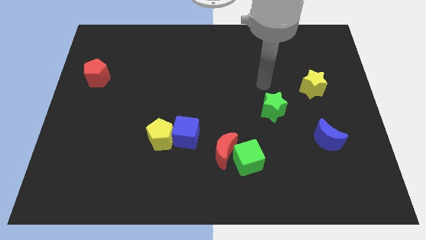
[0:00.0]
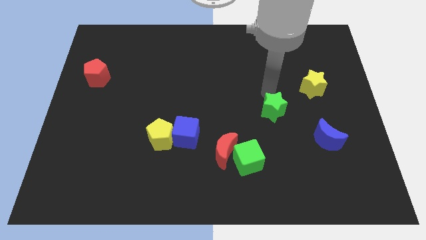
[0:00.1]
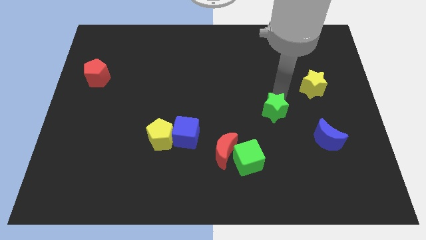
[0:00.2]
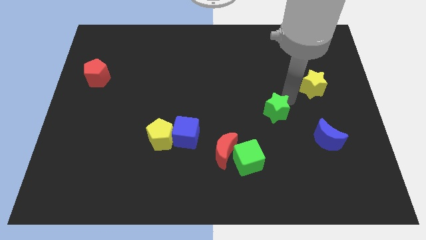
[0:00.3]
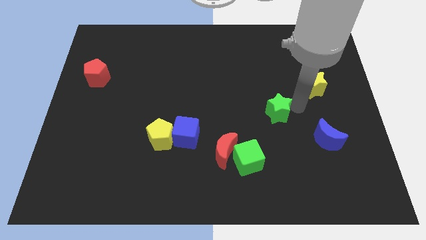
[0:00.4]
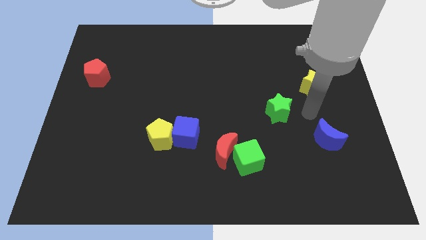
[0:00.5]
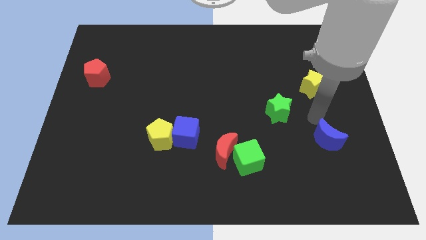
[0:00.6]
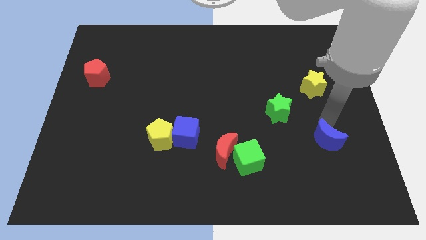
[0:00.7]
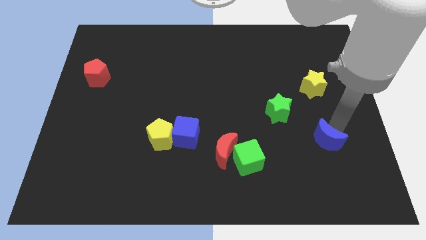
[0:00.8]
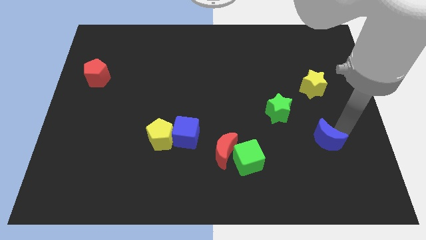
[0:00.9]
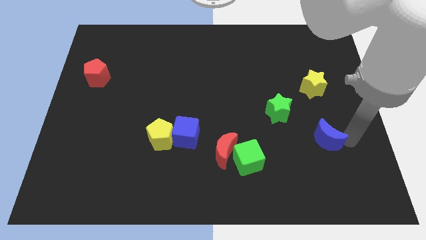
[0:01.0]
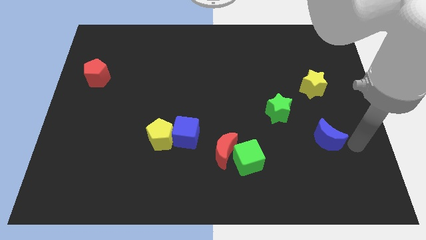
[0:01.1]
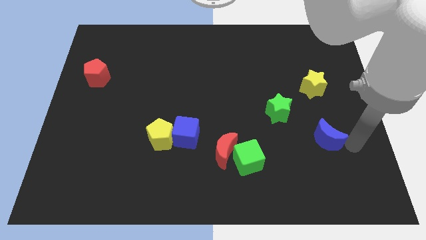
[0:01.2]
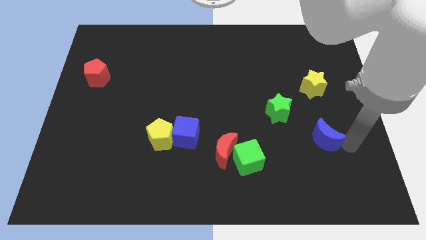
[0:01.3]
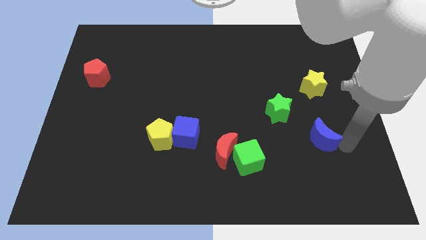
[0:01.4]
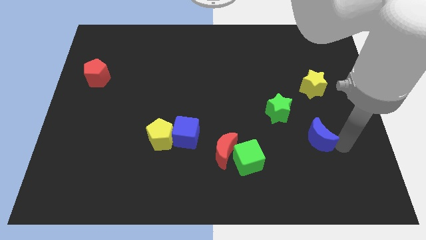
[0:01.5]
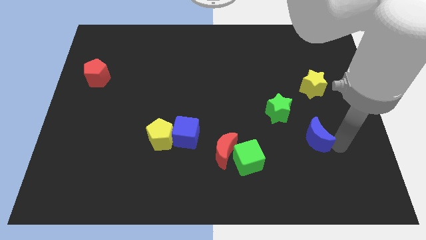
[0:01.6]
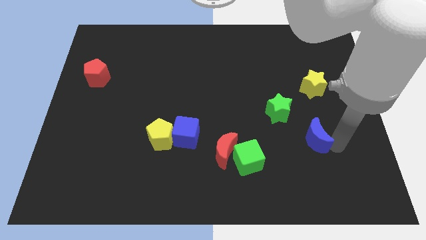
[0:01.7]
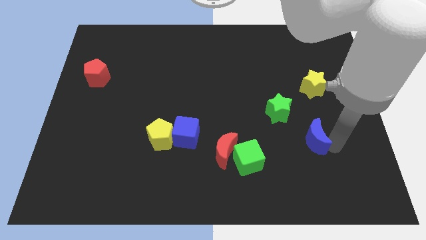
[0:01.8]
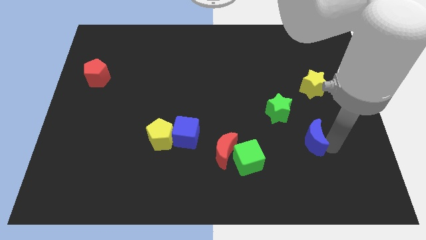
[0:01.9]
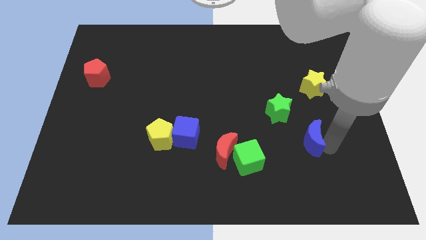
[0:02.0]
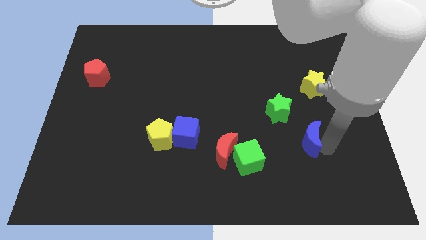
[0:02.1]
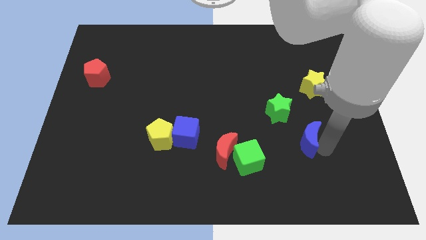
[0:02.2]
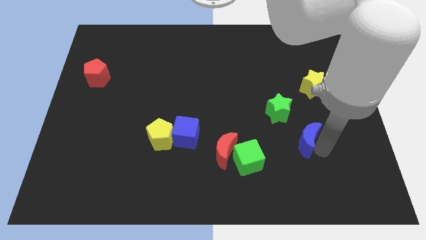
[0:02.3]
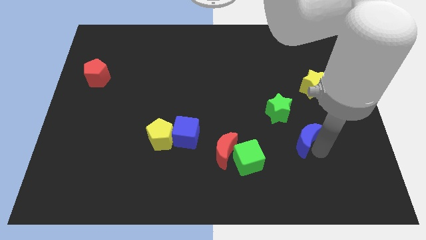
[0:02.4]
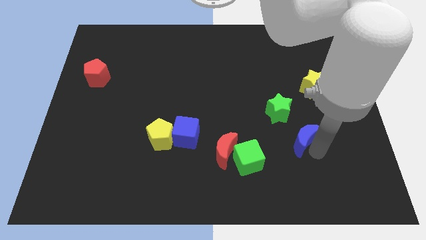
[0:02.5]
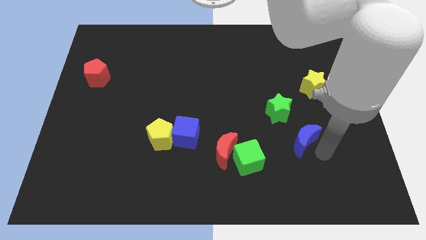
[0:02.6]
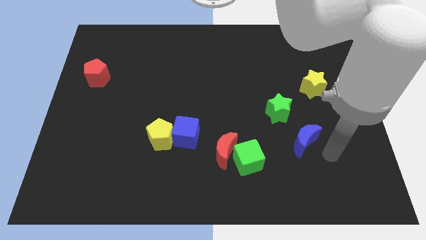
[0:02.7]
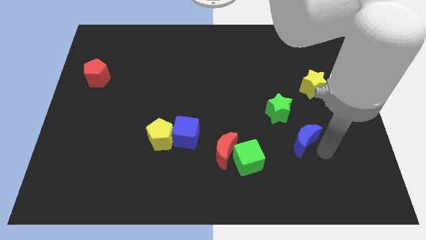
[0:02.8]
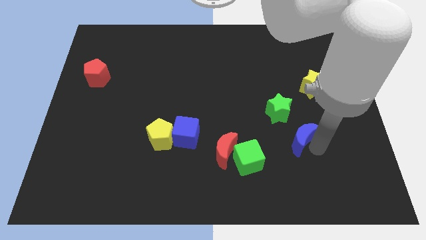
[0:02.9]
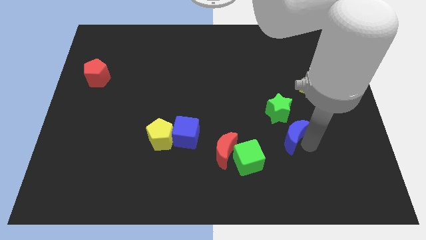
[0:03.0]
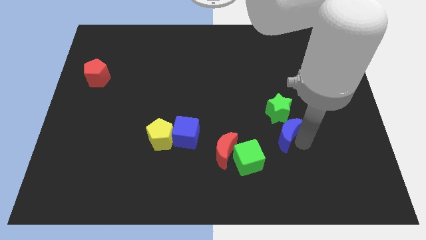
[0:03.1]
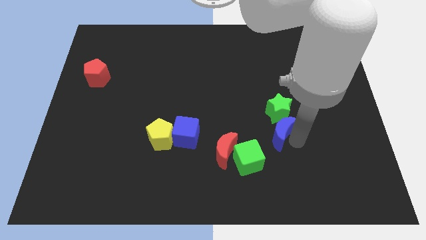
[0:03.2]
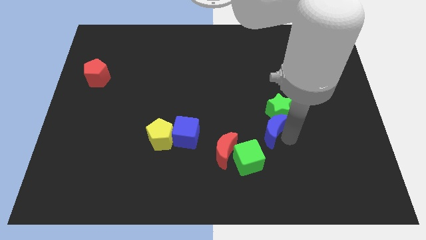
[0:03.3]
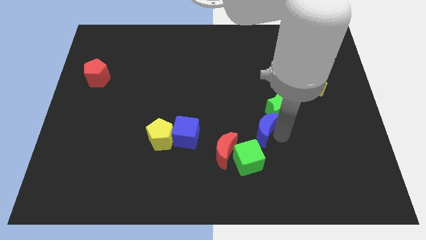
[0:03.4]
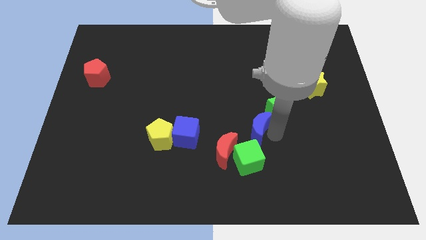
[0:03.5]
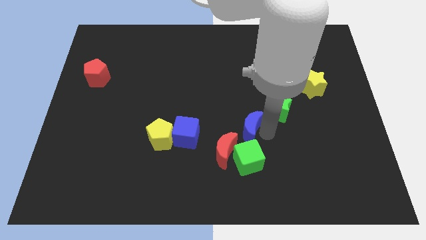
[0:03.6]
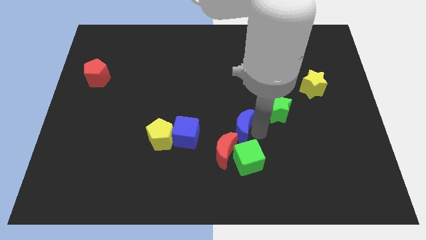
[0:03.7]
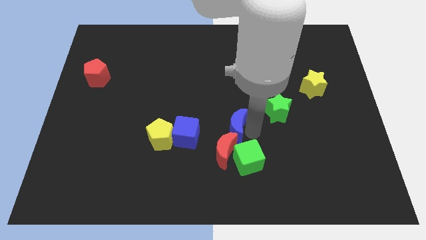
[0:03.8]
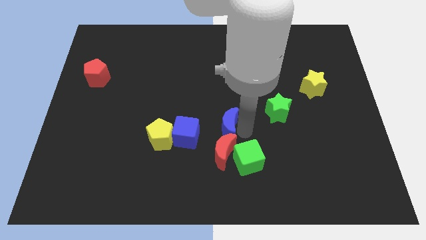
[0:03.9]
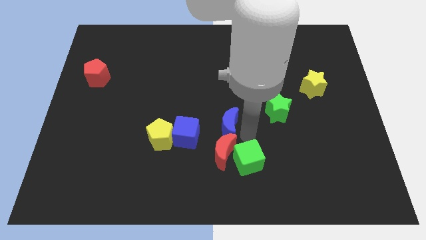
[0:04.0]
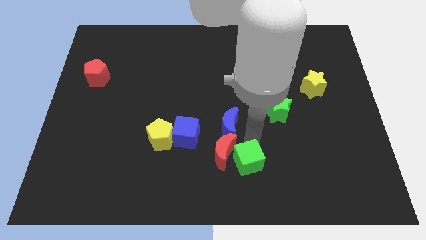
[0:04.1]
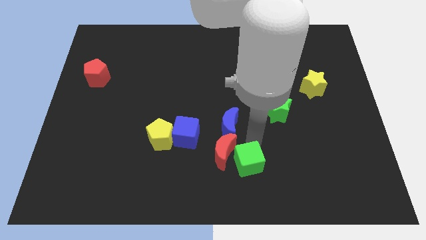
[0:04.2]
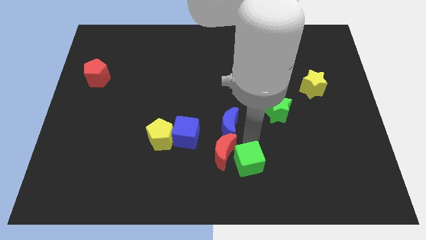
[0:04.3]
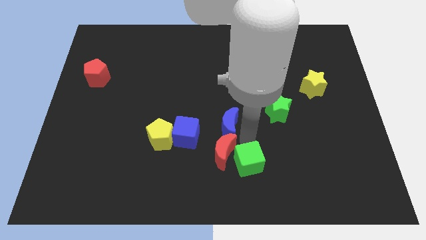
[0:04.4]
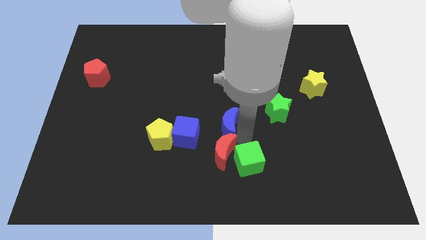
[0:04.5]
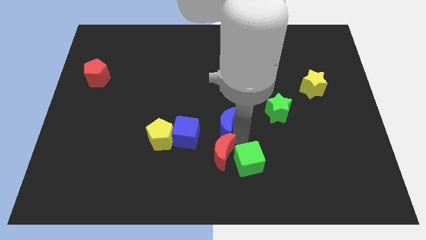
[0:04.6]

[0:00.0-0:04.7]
push the blue moon diagonally up and to the right of the blue cube

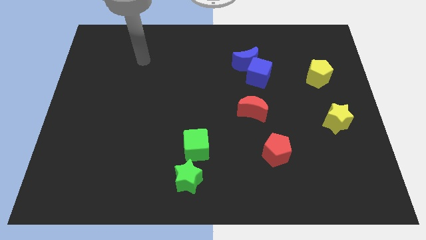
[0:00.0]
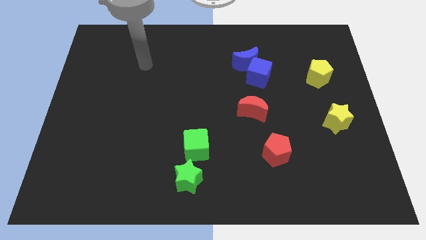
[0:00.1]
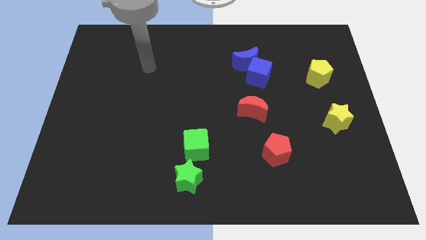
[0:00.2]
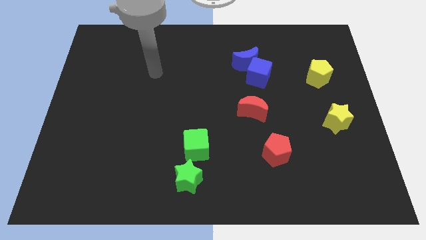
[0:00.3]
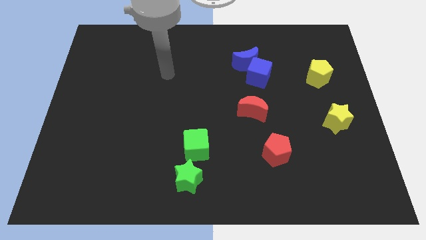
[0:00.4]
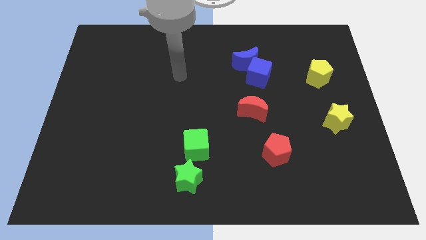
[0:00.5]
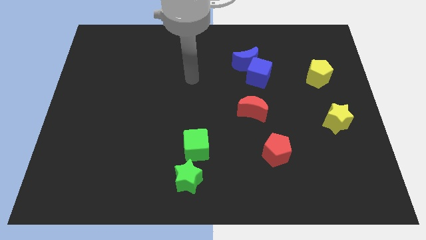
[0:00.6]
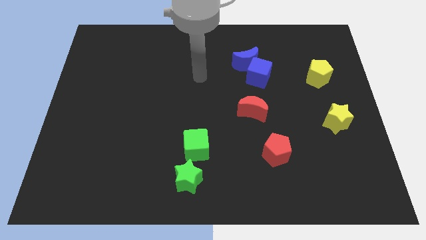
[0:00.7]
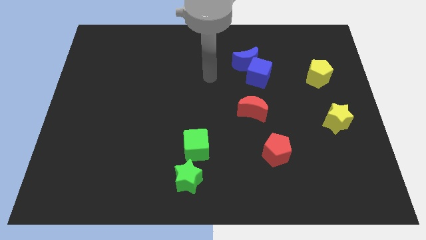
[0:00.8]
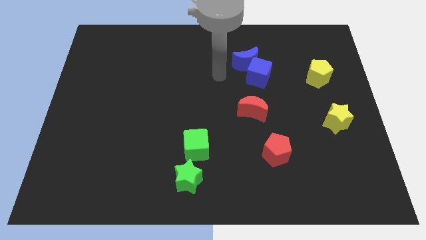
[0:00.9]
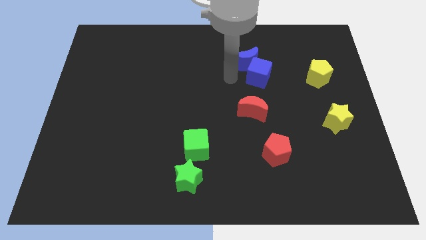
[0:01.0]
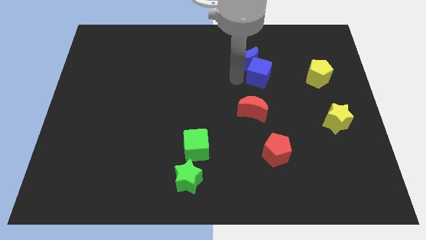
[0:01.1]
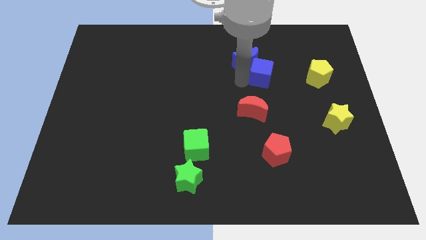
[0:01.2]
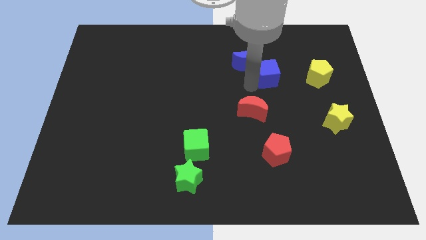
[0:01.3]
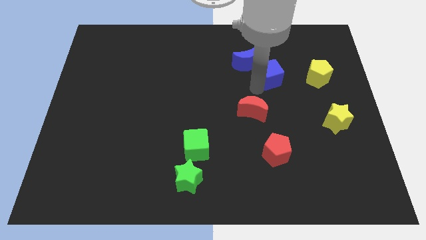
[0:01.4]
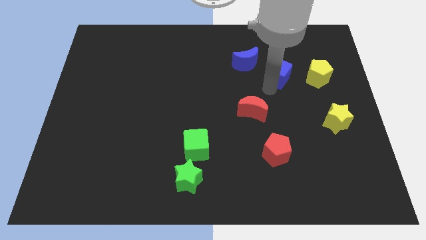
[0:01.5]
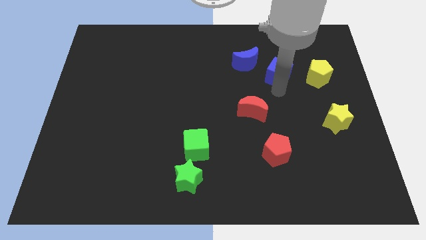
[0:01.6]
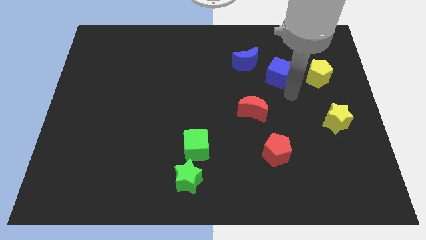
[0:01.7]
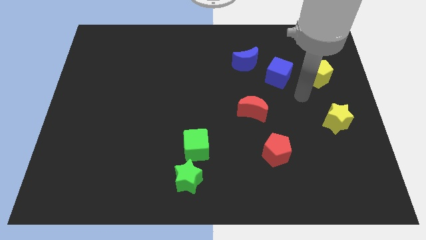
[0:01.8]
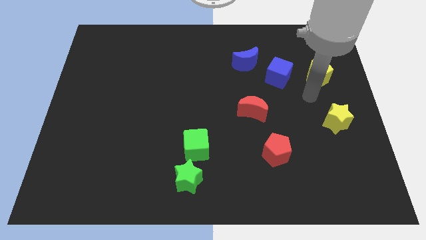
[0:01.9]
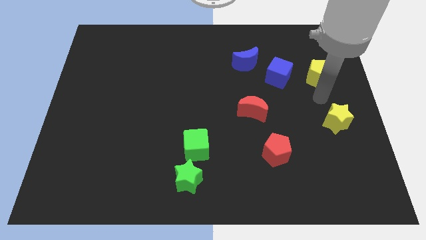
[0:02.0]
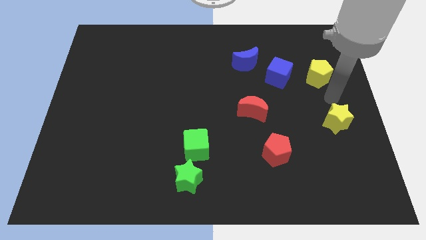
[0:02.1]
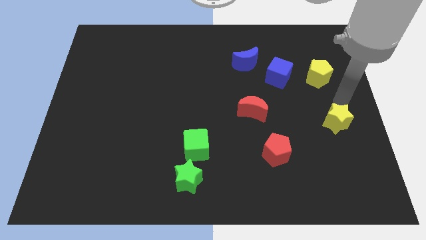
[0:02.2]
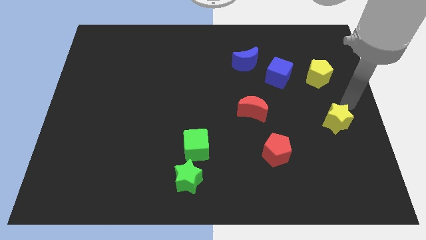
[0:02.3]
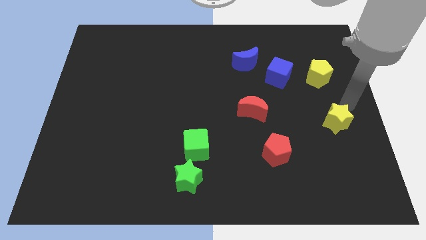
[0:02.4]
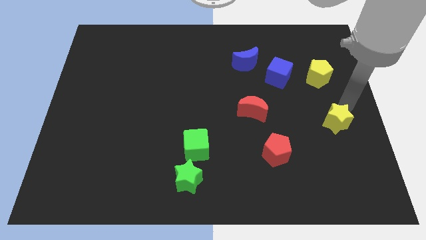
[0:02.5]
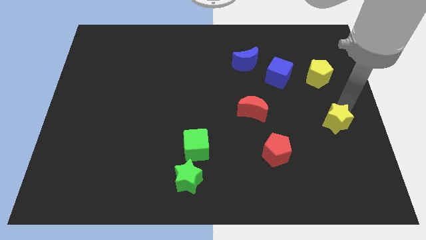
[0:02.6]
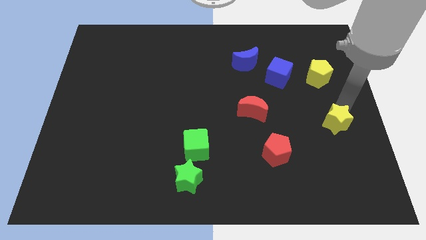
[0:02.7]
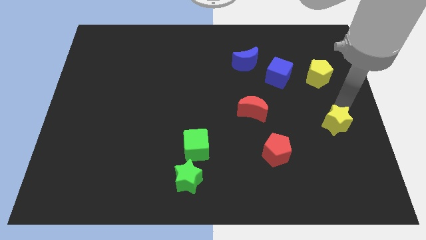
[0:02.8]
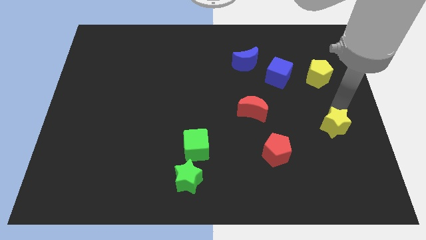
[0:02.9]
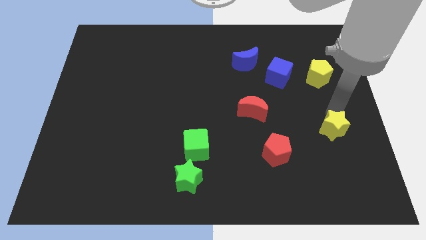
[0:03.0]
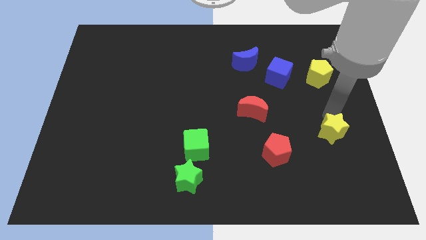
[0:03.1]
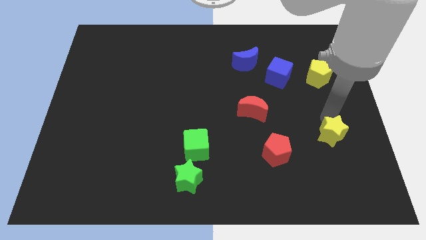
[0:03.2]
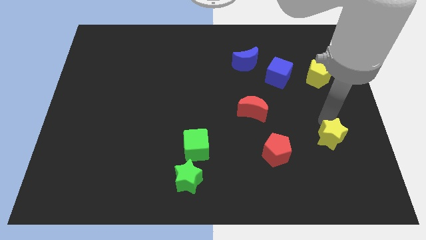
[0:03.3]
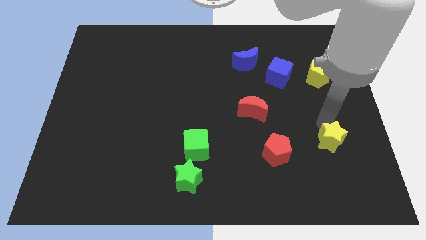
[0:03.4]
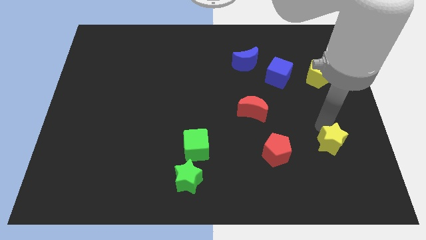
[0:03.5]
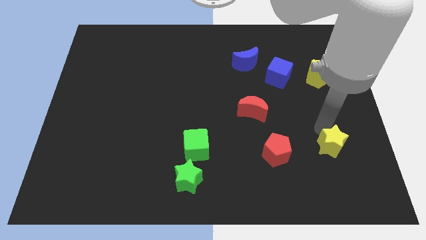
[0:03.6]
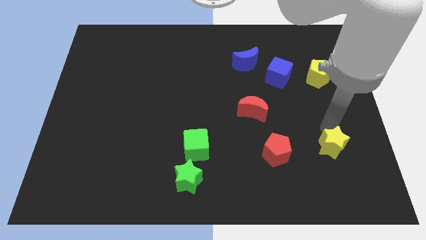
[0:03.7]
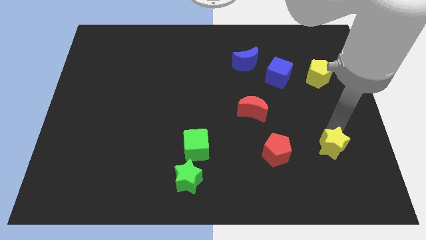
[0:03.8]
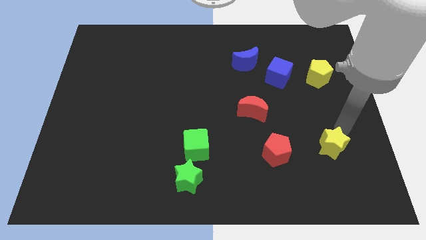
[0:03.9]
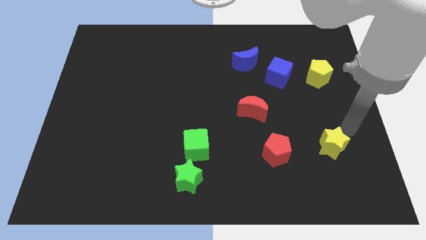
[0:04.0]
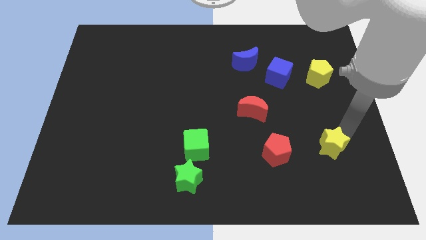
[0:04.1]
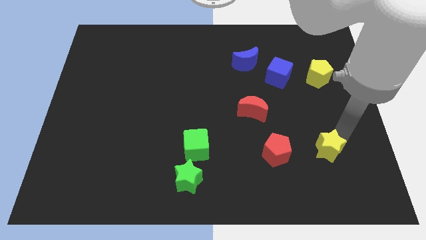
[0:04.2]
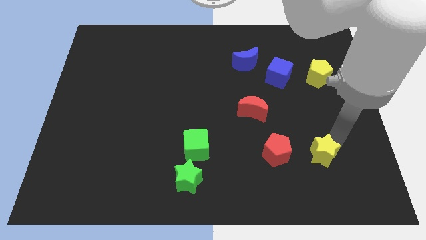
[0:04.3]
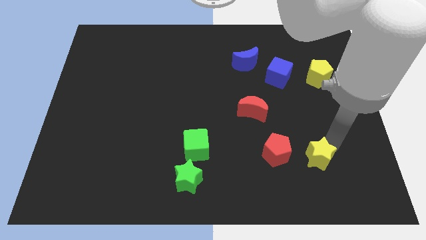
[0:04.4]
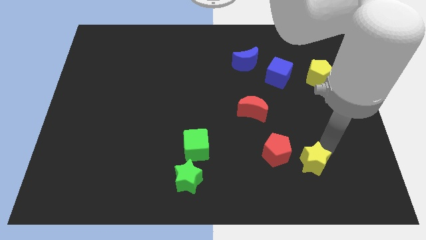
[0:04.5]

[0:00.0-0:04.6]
move the yellow star to the bottom right of the red pentagon
